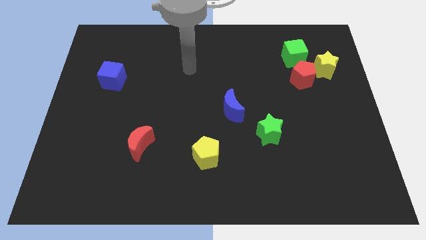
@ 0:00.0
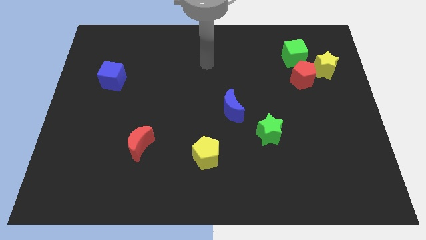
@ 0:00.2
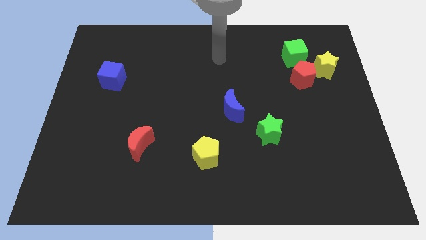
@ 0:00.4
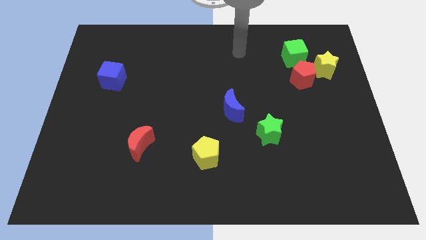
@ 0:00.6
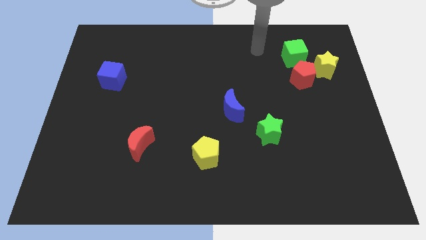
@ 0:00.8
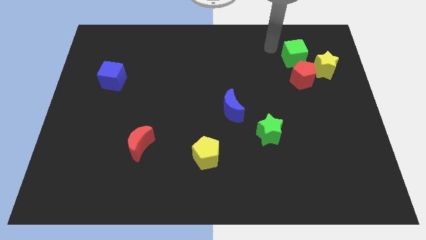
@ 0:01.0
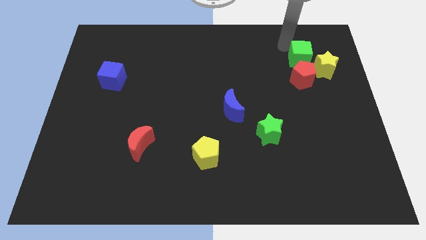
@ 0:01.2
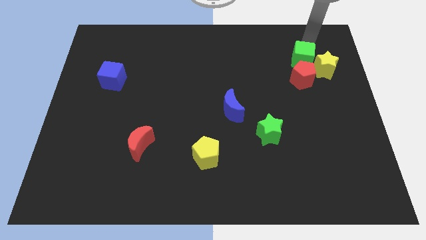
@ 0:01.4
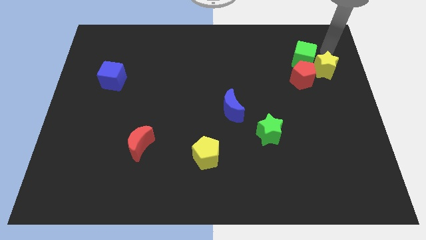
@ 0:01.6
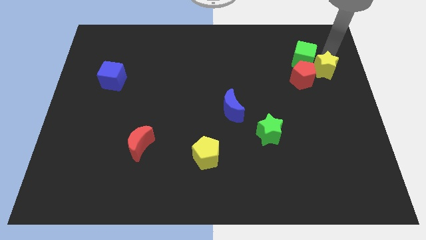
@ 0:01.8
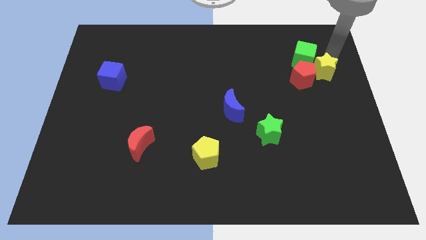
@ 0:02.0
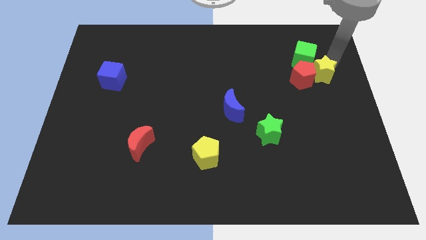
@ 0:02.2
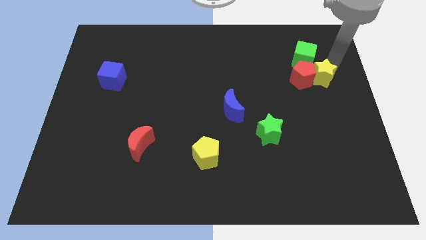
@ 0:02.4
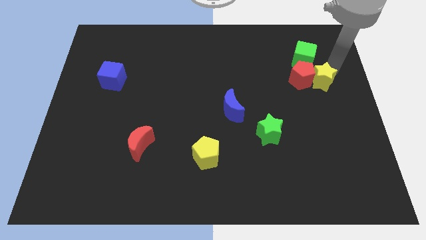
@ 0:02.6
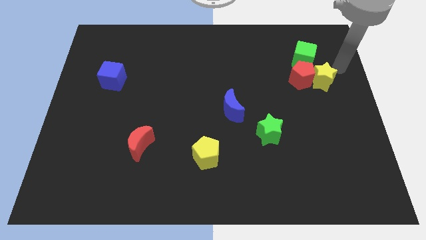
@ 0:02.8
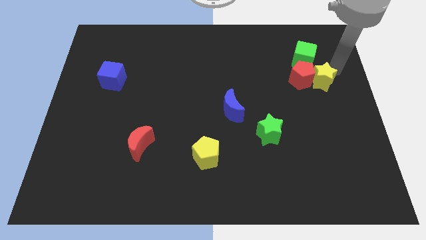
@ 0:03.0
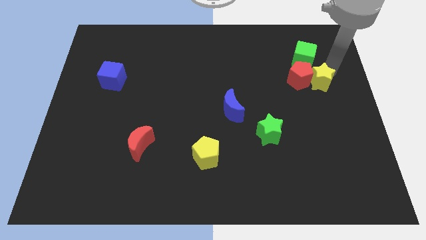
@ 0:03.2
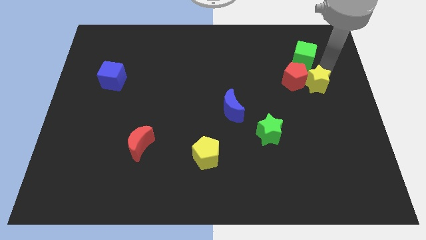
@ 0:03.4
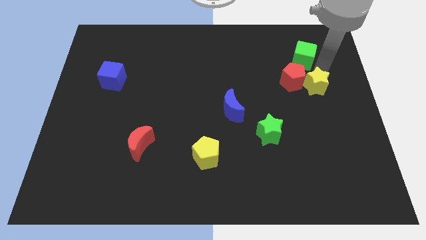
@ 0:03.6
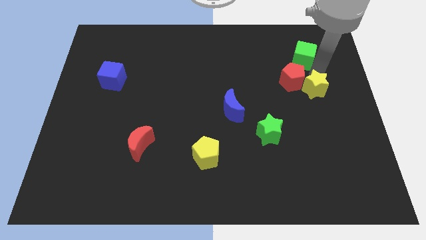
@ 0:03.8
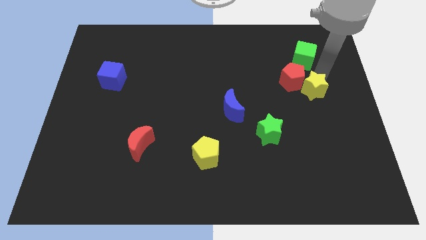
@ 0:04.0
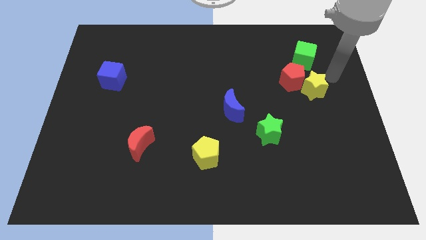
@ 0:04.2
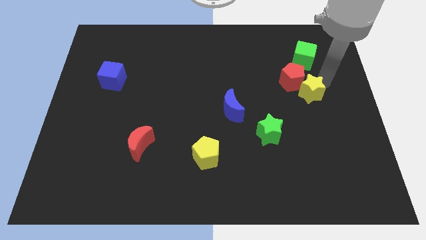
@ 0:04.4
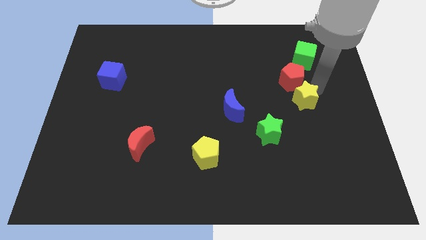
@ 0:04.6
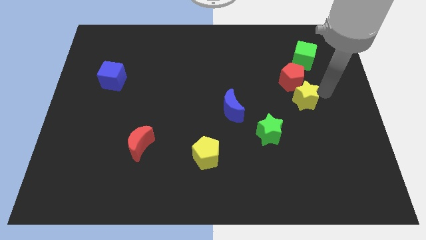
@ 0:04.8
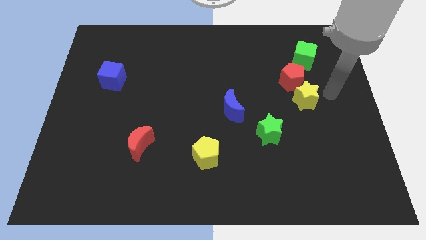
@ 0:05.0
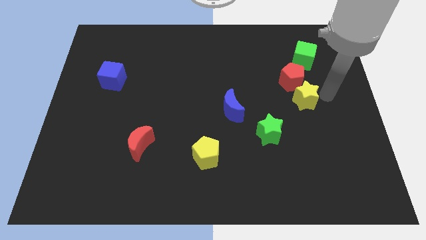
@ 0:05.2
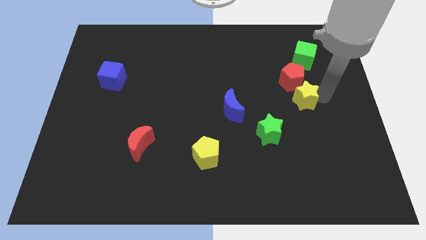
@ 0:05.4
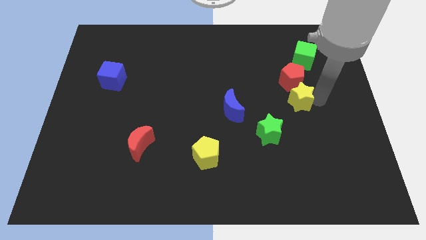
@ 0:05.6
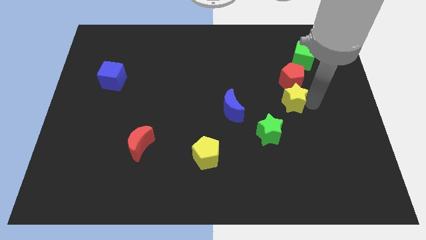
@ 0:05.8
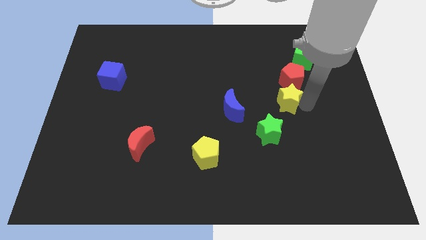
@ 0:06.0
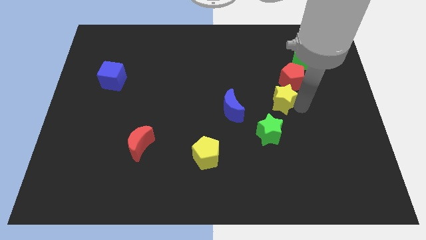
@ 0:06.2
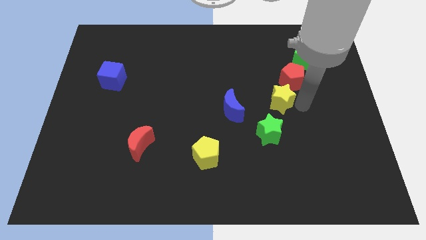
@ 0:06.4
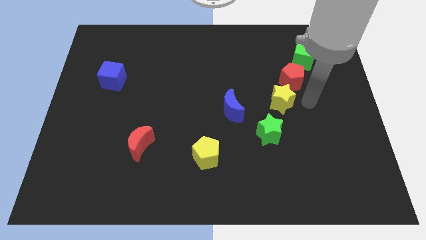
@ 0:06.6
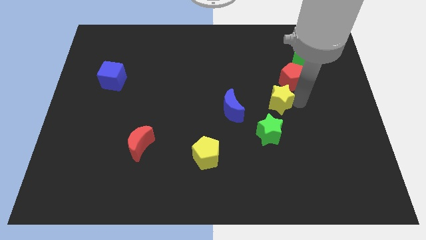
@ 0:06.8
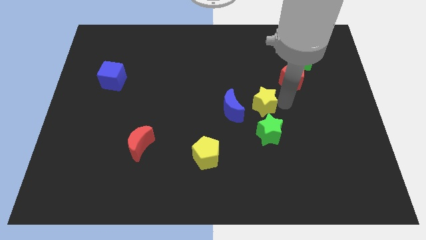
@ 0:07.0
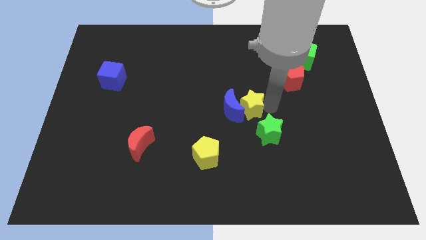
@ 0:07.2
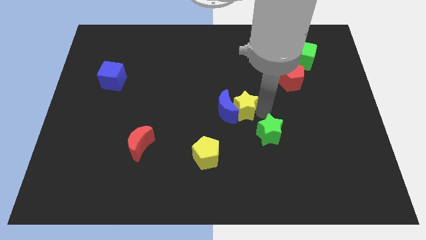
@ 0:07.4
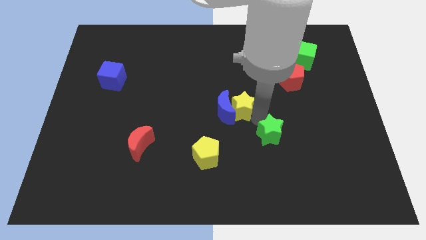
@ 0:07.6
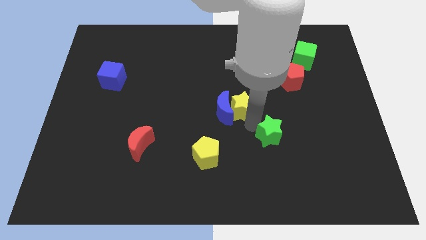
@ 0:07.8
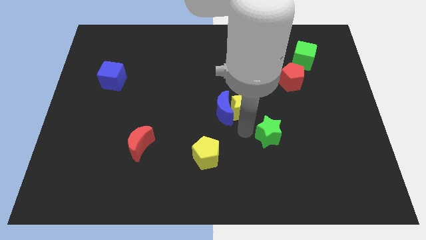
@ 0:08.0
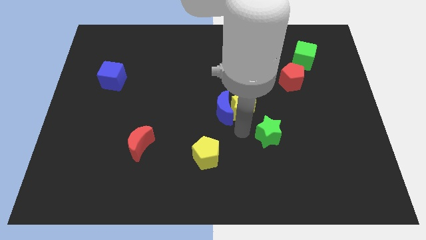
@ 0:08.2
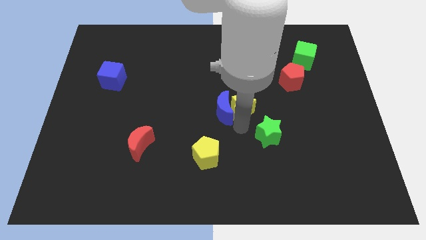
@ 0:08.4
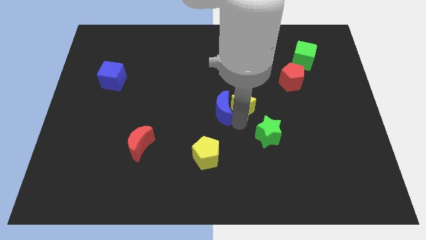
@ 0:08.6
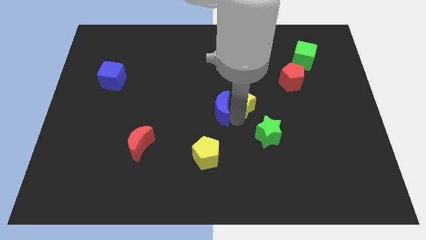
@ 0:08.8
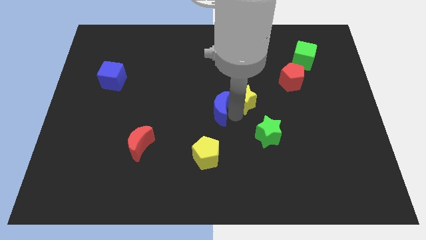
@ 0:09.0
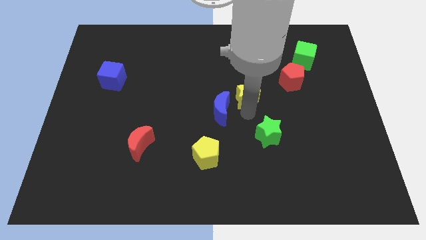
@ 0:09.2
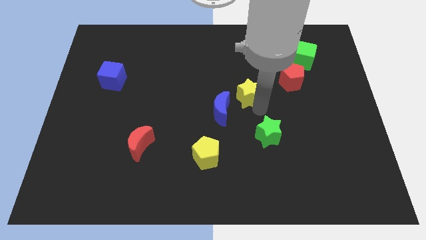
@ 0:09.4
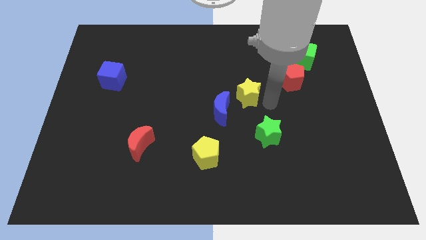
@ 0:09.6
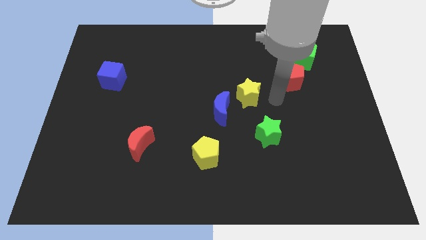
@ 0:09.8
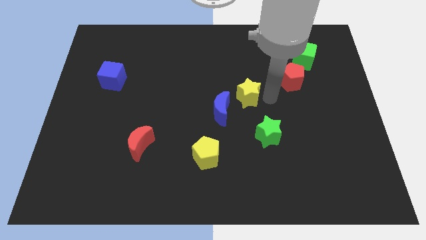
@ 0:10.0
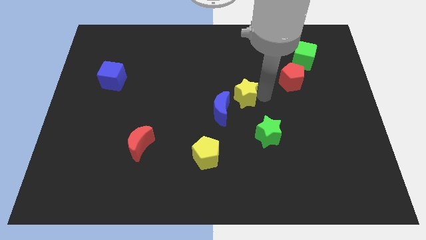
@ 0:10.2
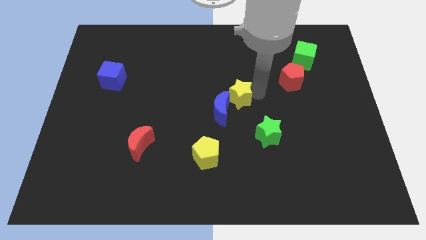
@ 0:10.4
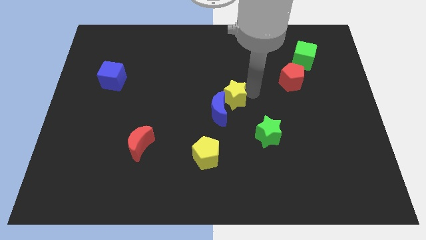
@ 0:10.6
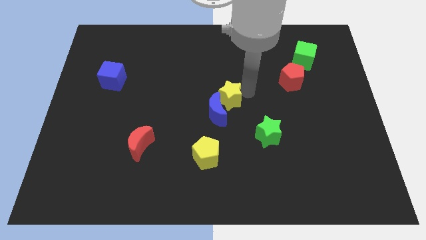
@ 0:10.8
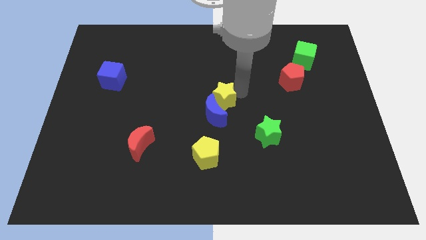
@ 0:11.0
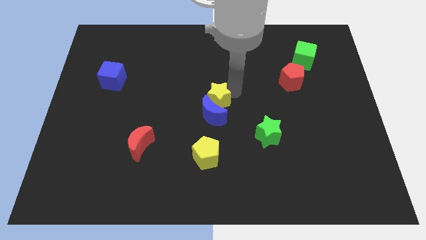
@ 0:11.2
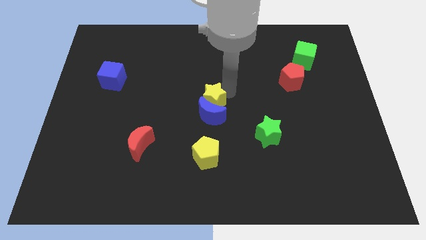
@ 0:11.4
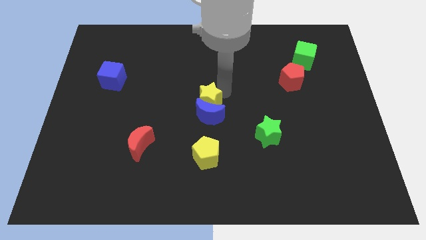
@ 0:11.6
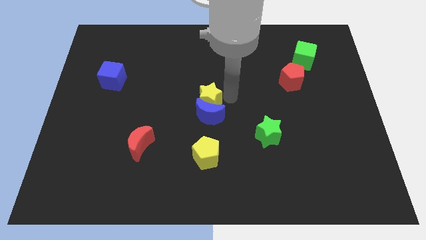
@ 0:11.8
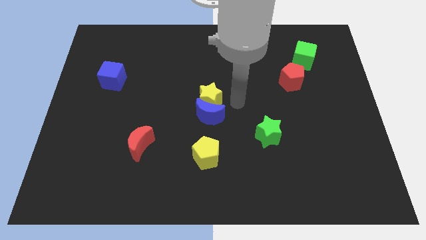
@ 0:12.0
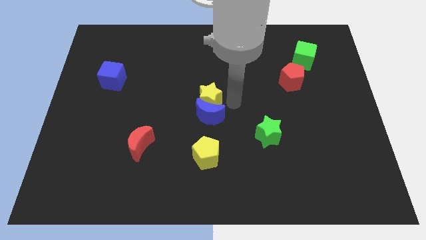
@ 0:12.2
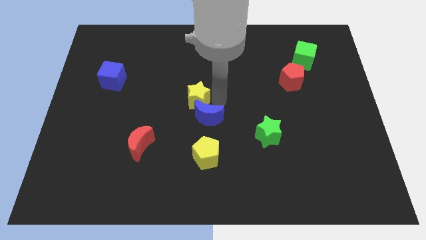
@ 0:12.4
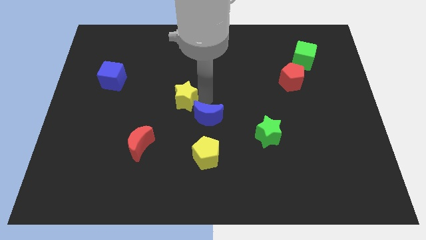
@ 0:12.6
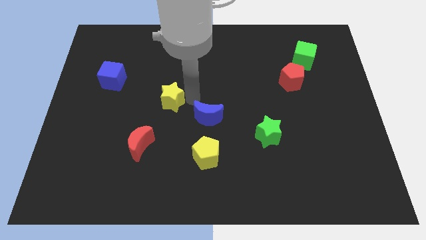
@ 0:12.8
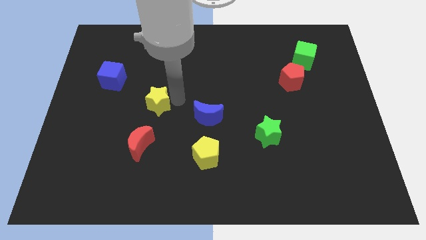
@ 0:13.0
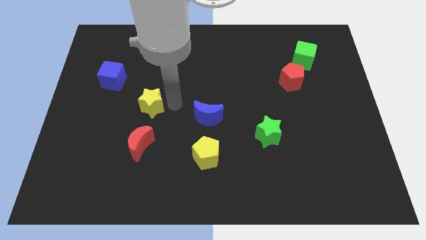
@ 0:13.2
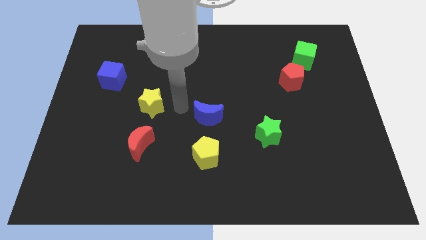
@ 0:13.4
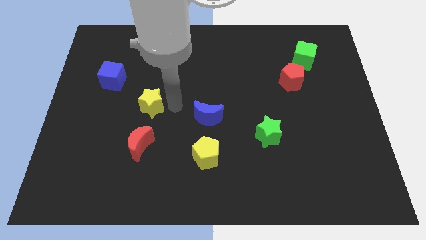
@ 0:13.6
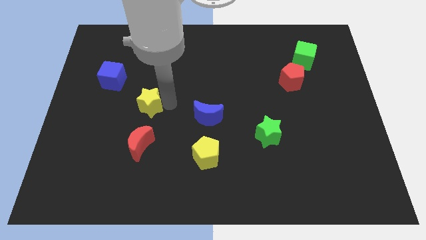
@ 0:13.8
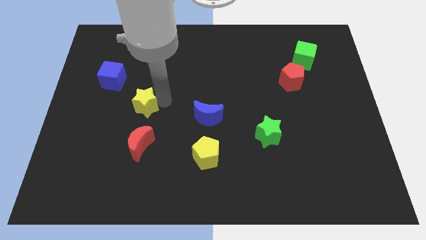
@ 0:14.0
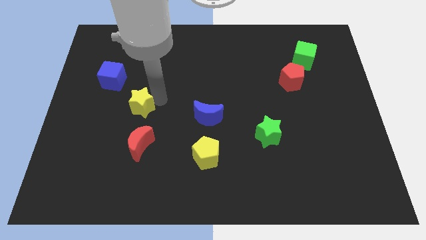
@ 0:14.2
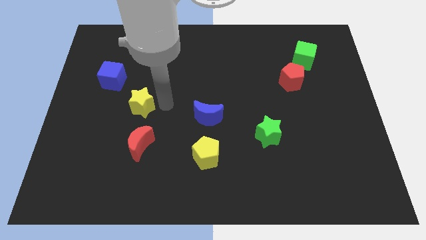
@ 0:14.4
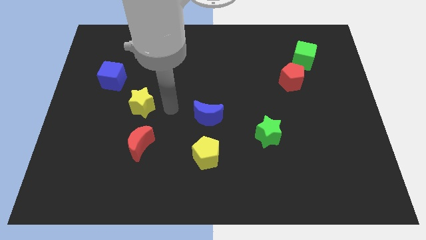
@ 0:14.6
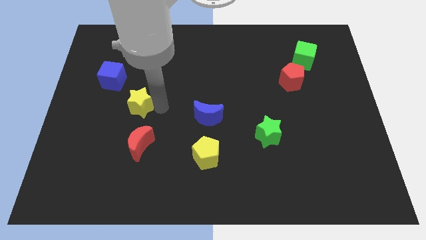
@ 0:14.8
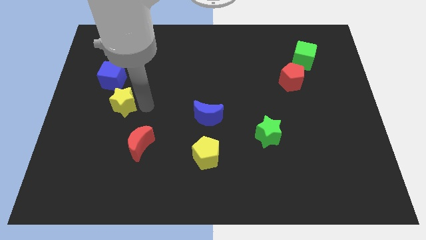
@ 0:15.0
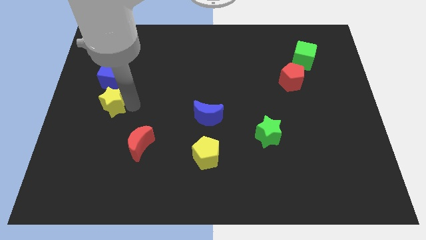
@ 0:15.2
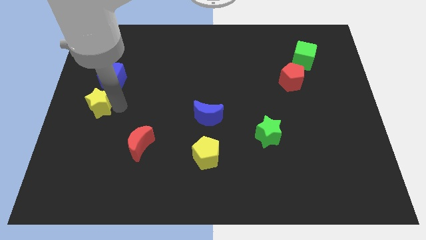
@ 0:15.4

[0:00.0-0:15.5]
put the yellow star to the left side of the board
